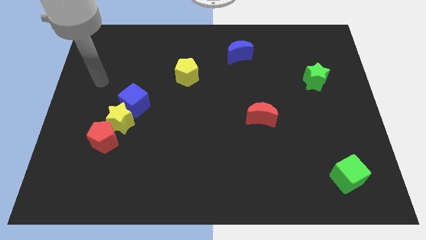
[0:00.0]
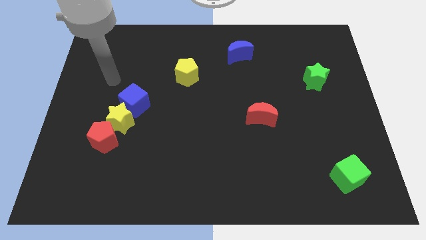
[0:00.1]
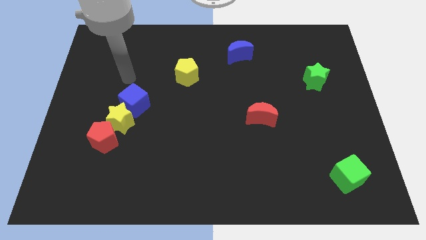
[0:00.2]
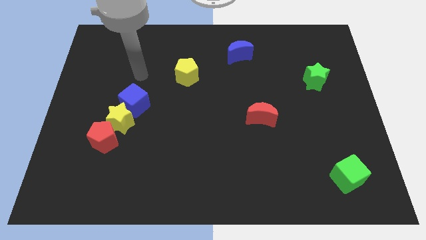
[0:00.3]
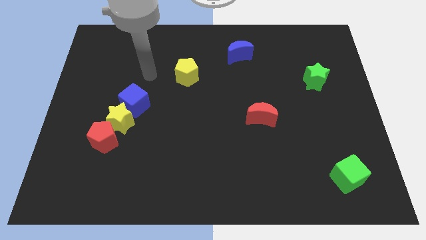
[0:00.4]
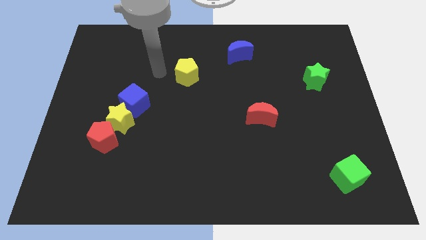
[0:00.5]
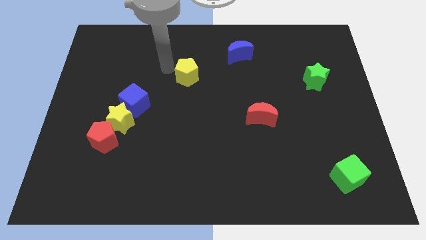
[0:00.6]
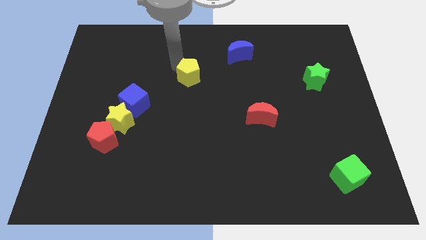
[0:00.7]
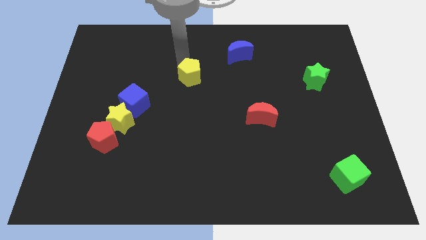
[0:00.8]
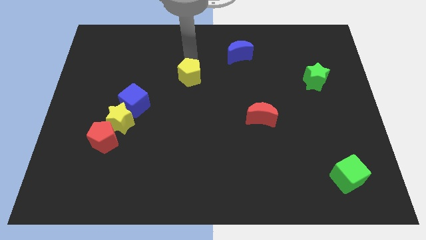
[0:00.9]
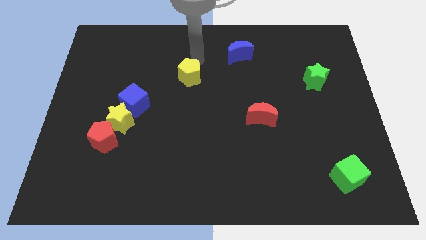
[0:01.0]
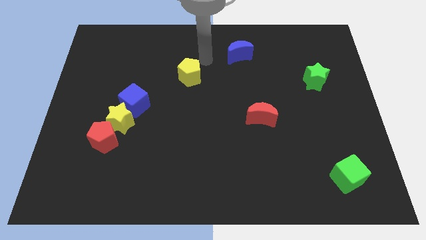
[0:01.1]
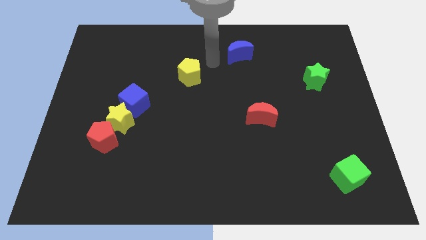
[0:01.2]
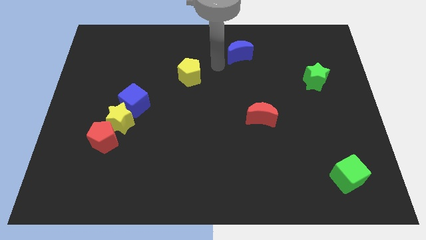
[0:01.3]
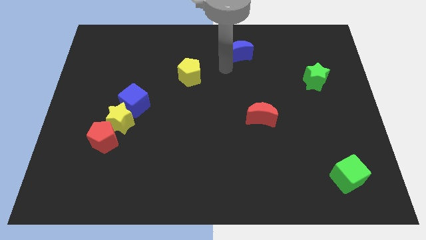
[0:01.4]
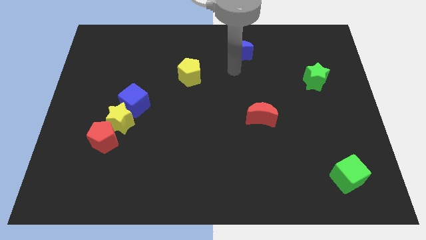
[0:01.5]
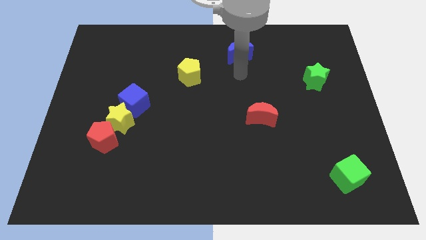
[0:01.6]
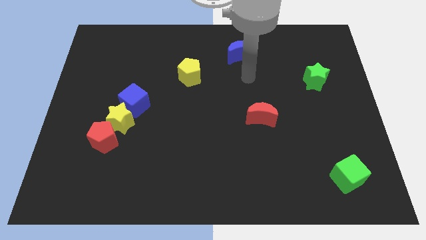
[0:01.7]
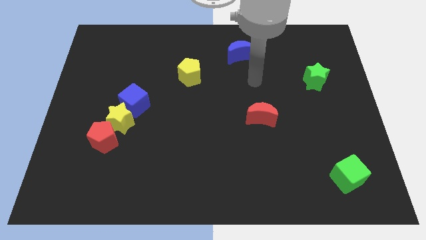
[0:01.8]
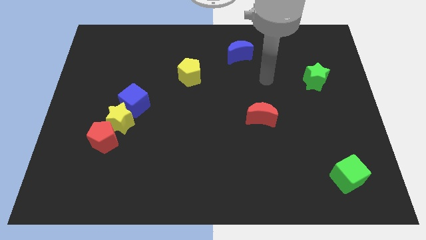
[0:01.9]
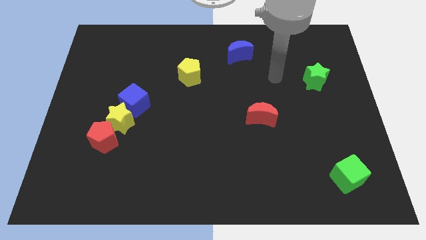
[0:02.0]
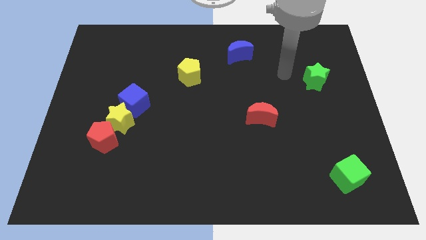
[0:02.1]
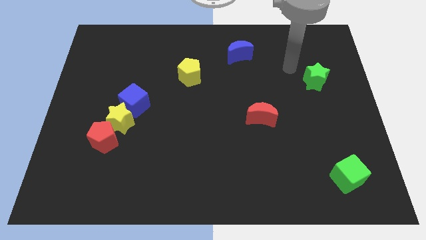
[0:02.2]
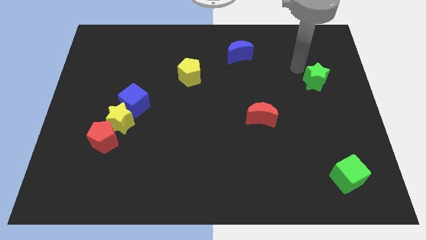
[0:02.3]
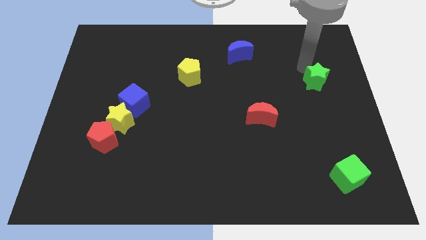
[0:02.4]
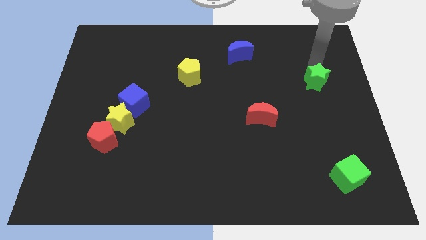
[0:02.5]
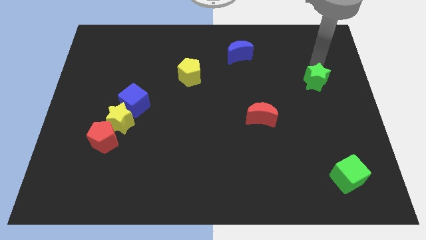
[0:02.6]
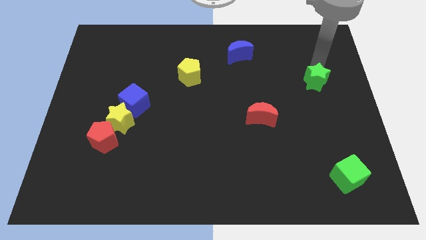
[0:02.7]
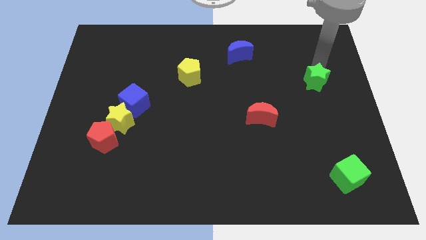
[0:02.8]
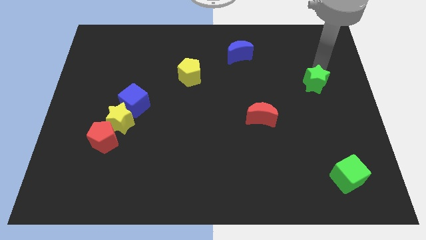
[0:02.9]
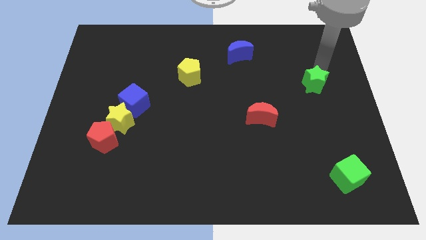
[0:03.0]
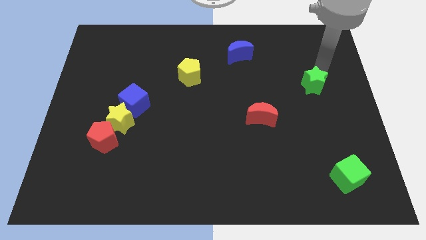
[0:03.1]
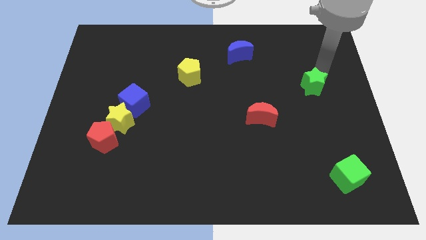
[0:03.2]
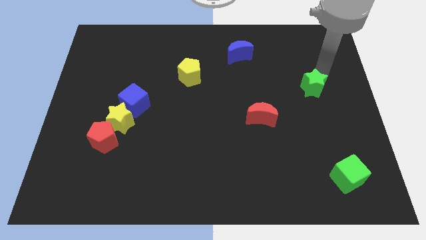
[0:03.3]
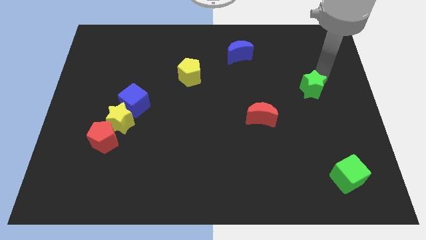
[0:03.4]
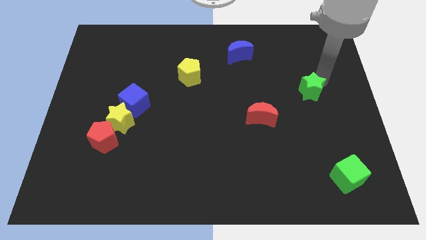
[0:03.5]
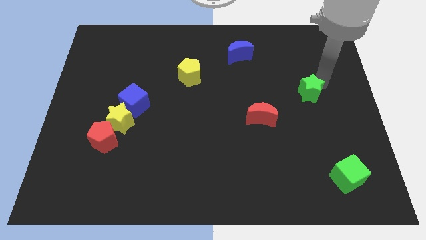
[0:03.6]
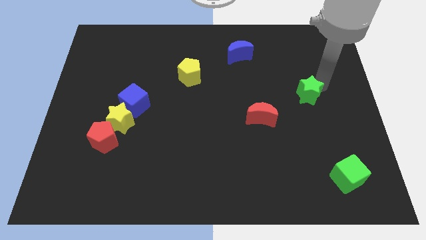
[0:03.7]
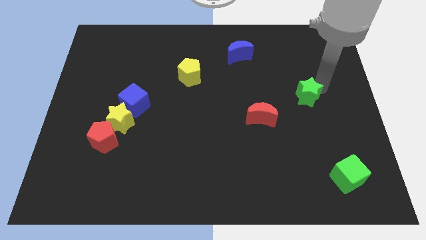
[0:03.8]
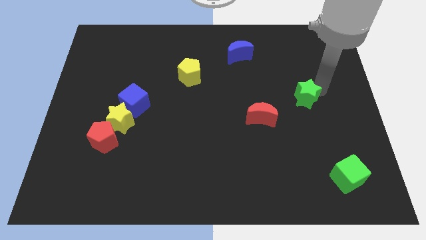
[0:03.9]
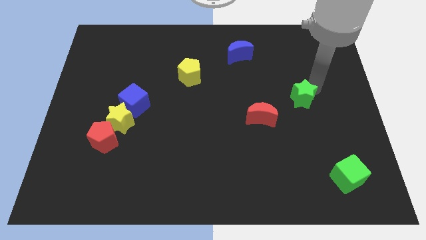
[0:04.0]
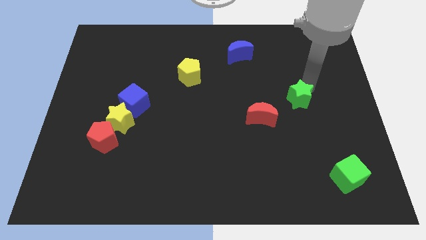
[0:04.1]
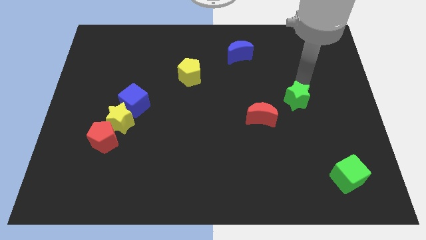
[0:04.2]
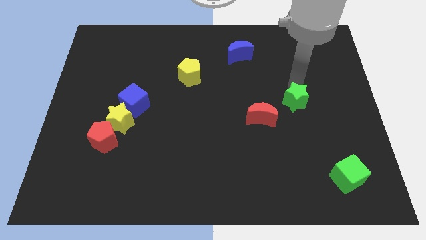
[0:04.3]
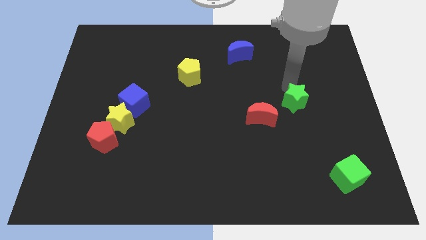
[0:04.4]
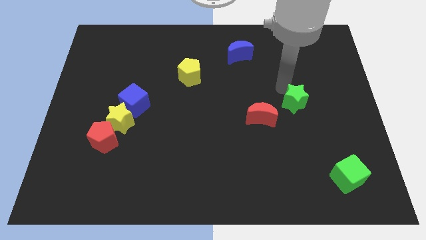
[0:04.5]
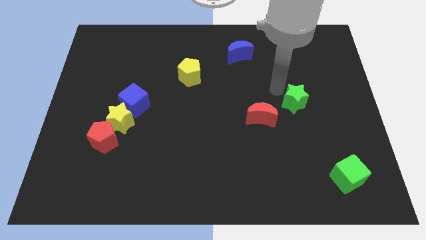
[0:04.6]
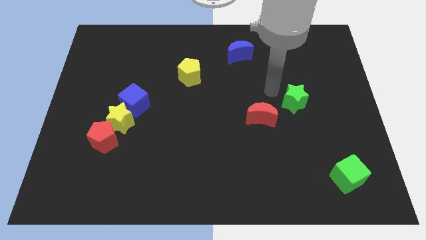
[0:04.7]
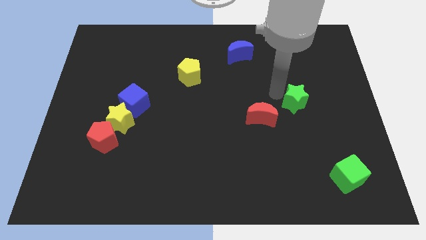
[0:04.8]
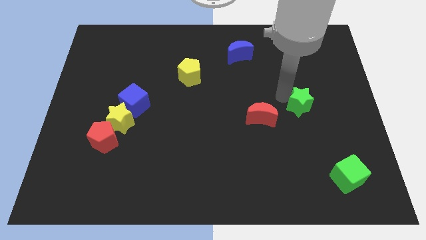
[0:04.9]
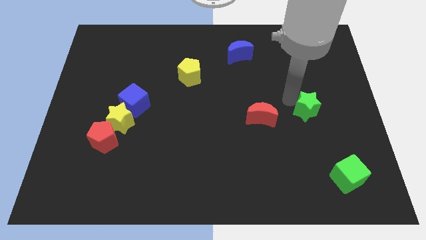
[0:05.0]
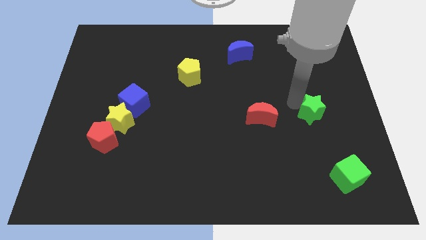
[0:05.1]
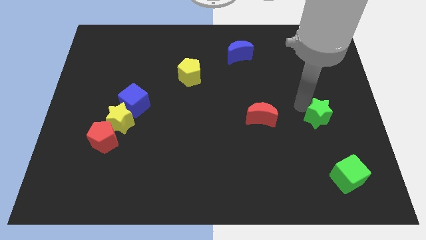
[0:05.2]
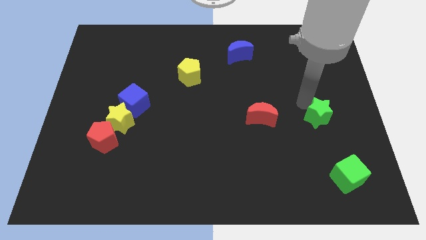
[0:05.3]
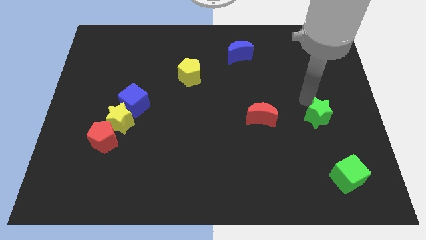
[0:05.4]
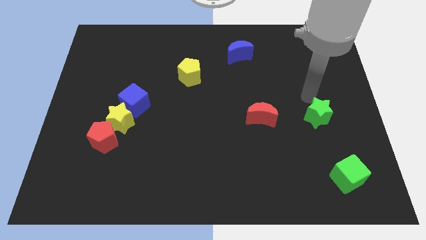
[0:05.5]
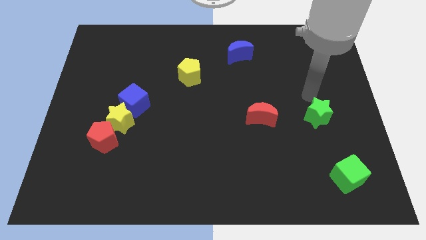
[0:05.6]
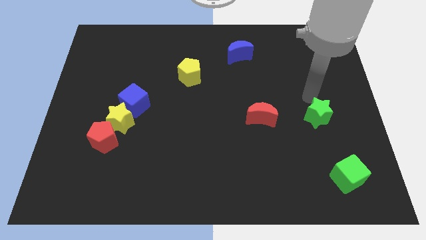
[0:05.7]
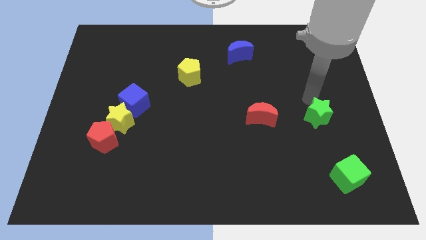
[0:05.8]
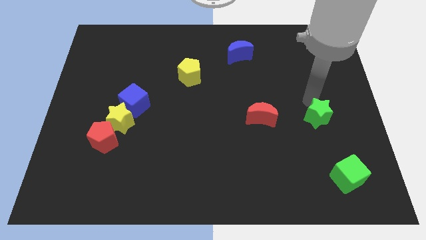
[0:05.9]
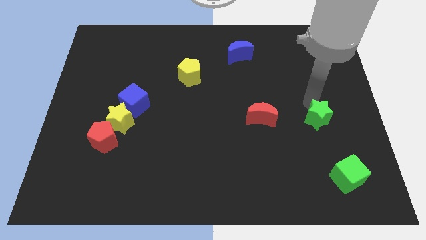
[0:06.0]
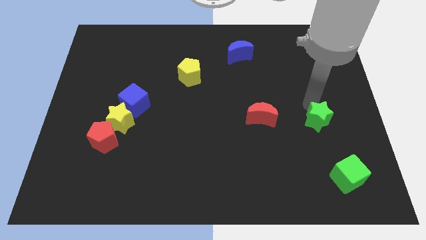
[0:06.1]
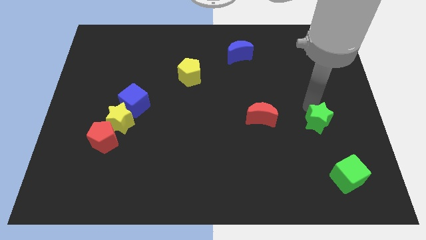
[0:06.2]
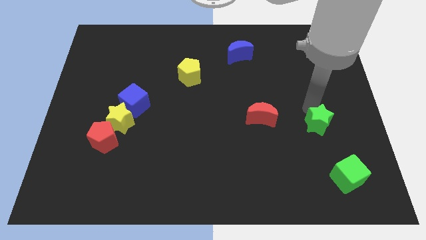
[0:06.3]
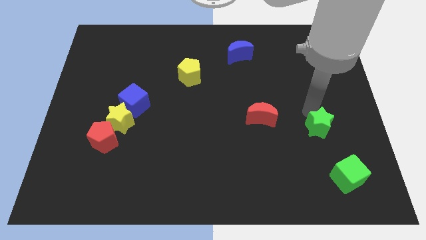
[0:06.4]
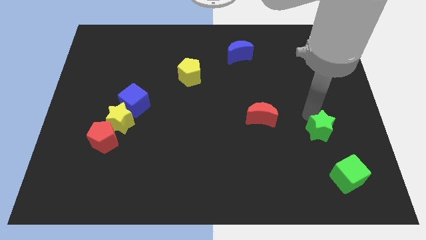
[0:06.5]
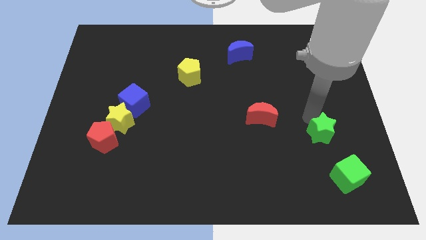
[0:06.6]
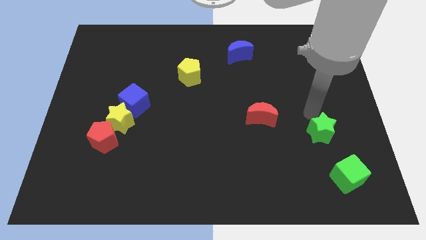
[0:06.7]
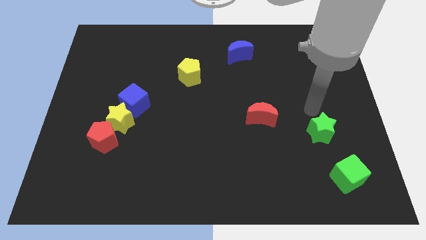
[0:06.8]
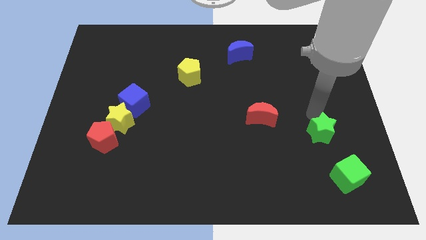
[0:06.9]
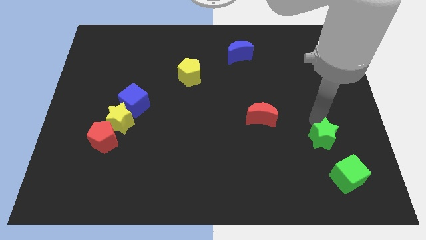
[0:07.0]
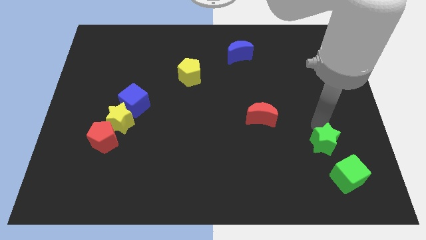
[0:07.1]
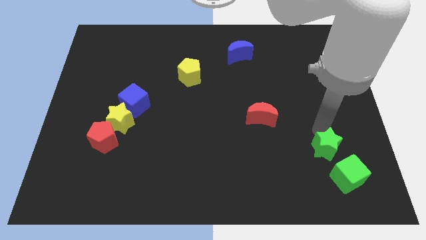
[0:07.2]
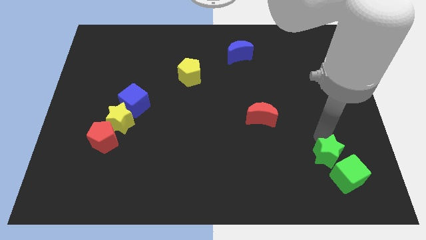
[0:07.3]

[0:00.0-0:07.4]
push the green star close to the green cube
